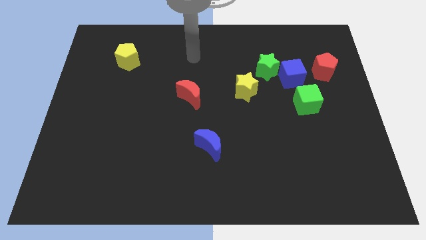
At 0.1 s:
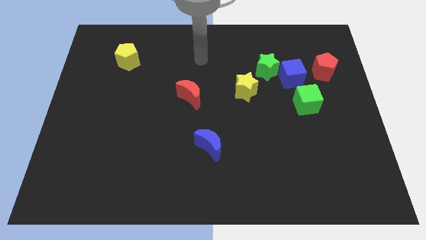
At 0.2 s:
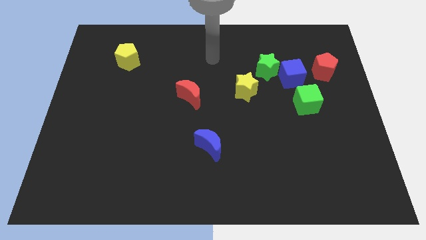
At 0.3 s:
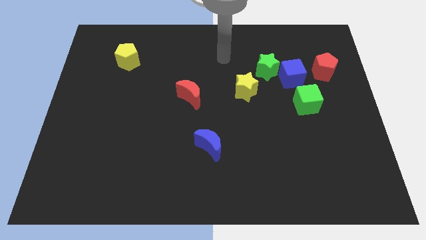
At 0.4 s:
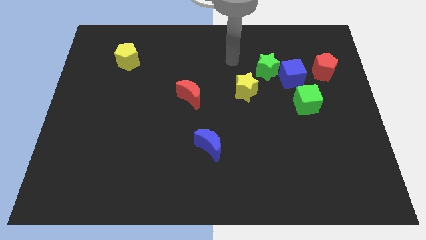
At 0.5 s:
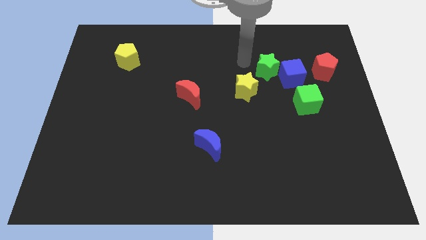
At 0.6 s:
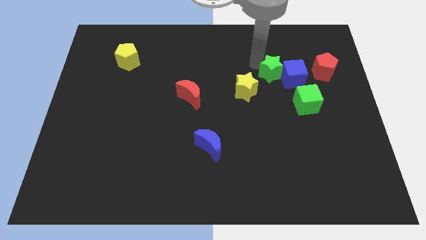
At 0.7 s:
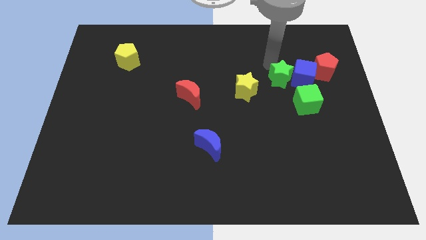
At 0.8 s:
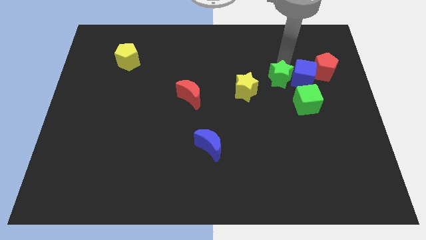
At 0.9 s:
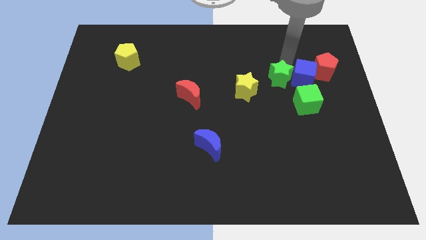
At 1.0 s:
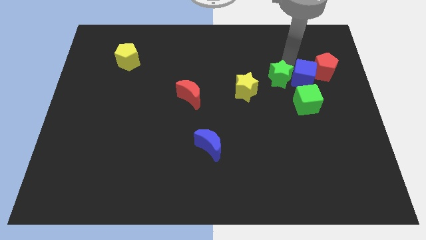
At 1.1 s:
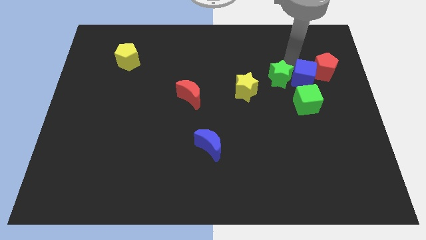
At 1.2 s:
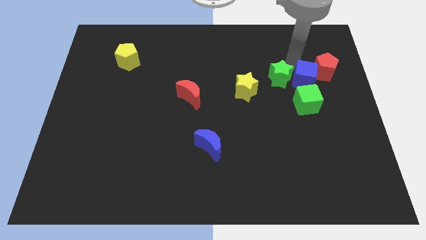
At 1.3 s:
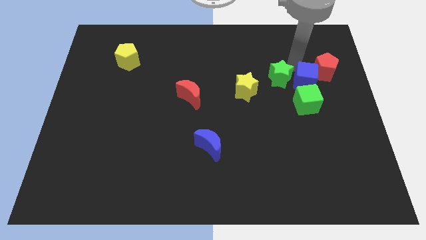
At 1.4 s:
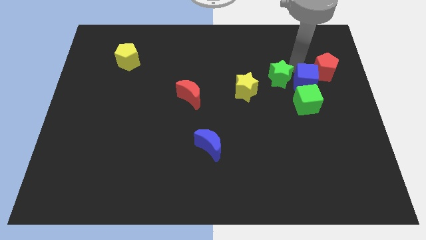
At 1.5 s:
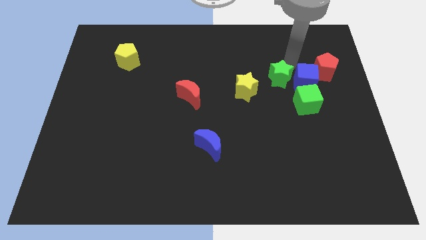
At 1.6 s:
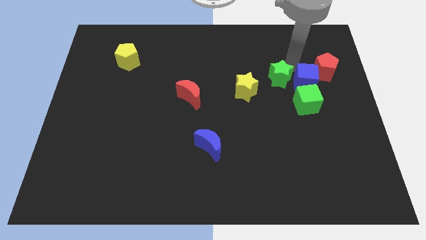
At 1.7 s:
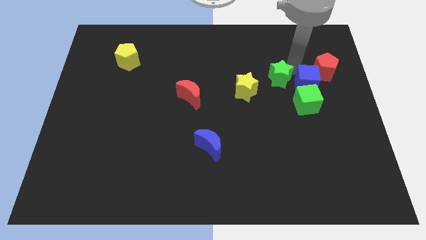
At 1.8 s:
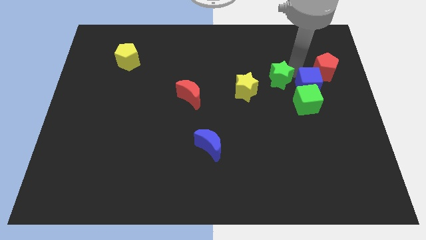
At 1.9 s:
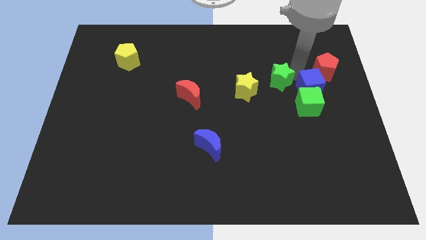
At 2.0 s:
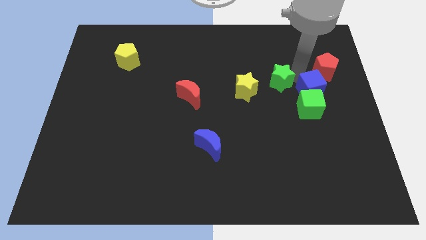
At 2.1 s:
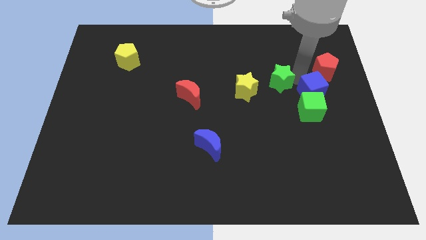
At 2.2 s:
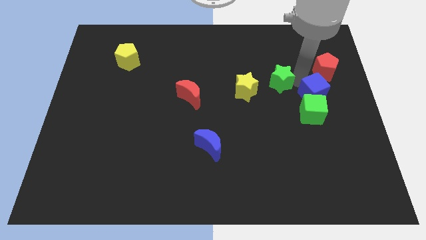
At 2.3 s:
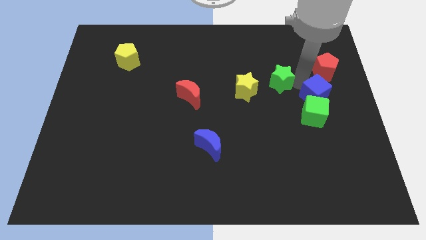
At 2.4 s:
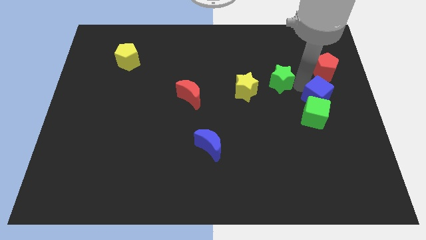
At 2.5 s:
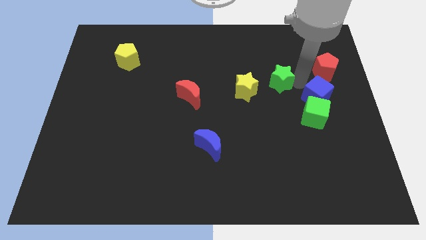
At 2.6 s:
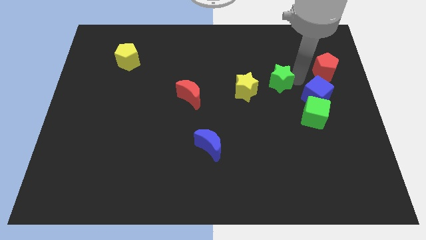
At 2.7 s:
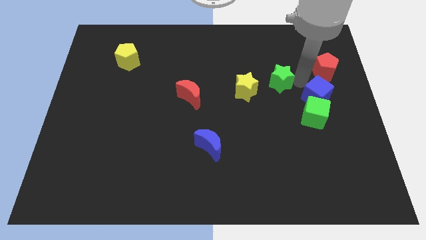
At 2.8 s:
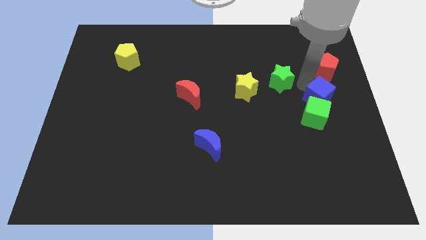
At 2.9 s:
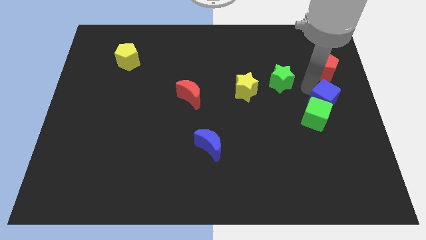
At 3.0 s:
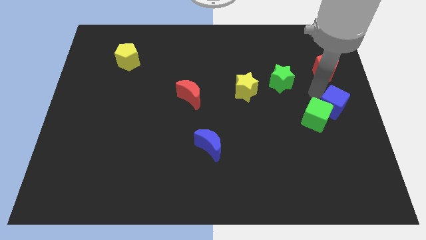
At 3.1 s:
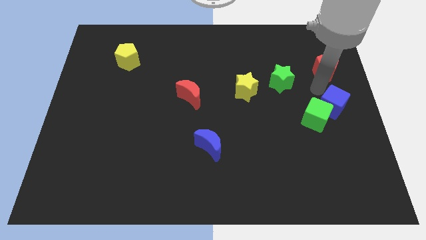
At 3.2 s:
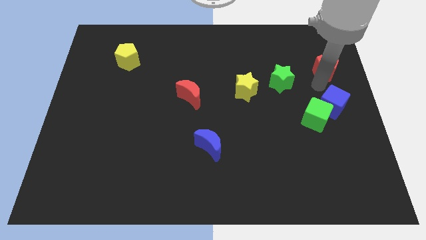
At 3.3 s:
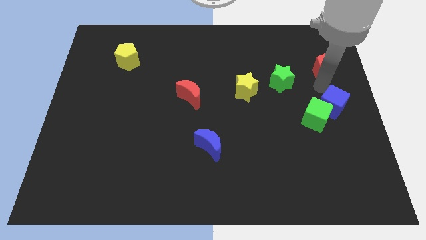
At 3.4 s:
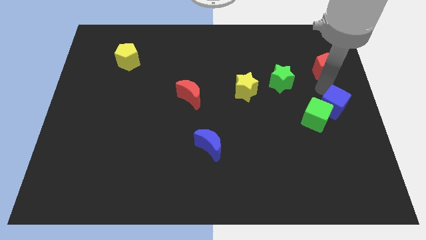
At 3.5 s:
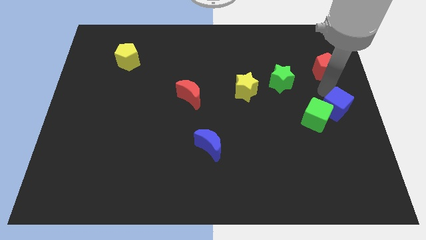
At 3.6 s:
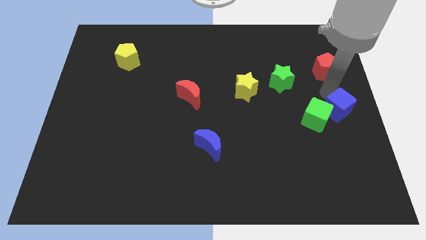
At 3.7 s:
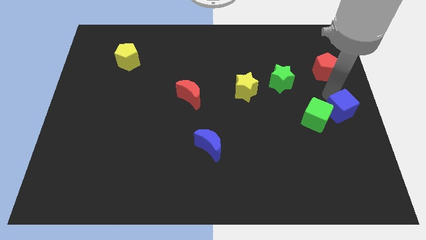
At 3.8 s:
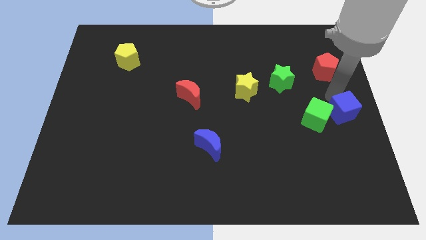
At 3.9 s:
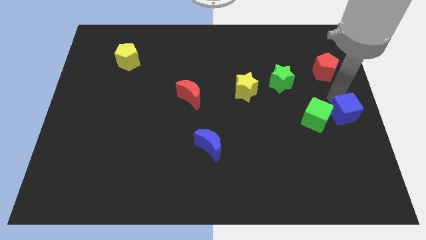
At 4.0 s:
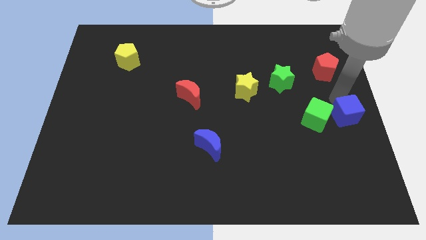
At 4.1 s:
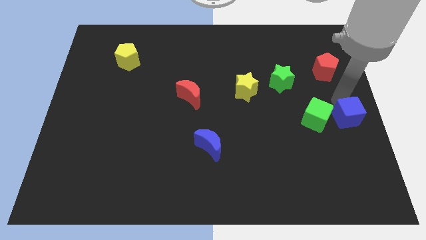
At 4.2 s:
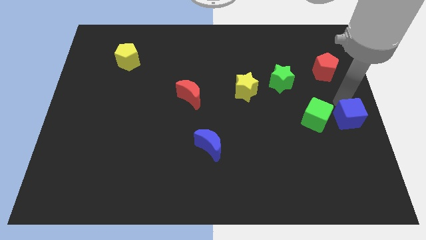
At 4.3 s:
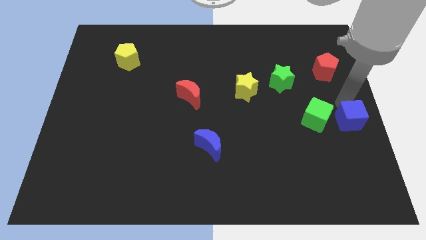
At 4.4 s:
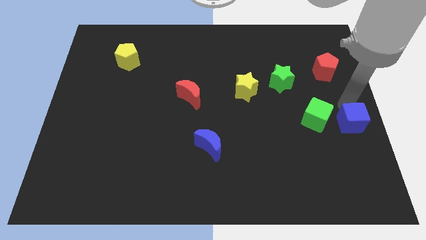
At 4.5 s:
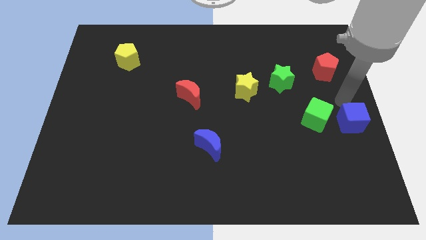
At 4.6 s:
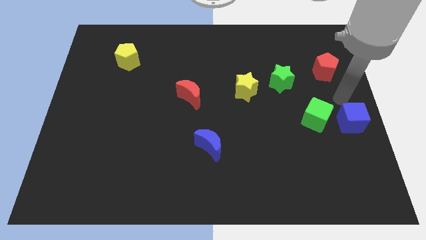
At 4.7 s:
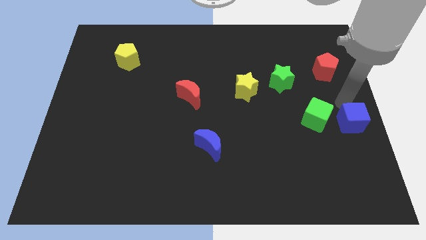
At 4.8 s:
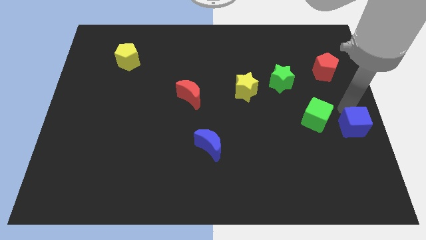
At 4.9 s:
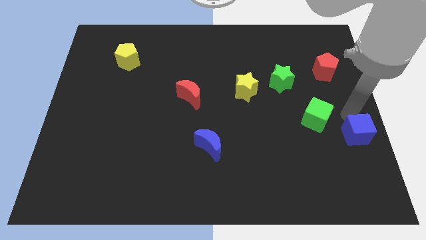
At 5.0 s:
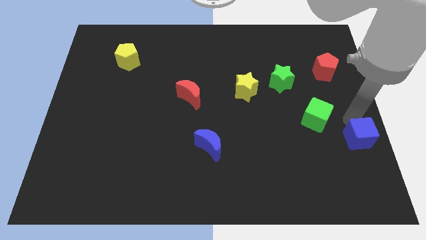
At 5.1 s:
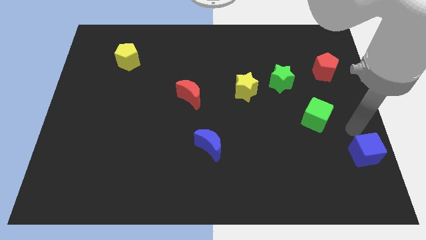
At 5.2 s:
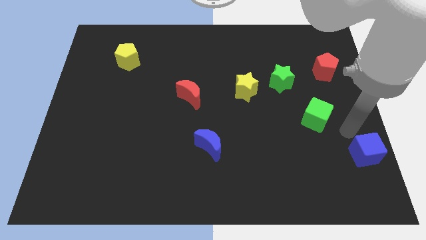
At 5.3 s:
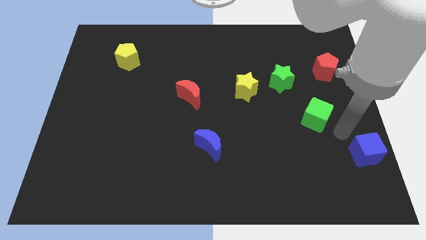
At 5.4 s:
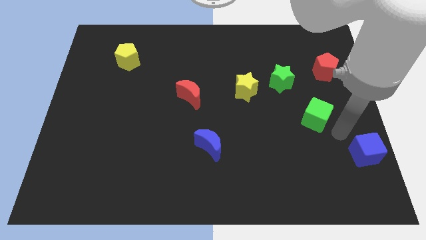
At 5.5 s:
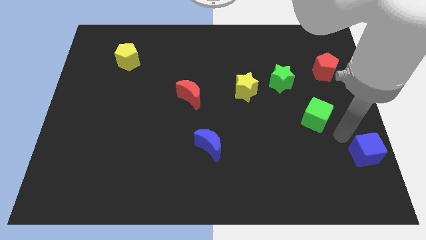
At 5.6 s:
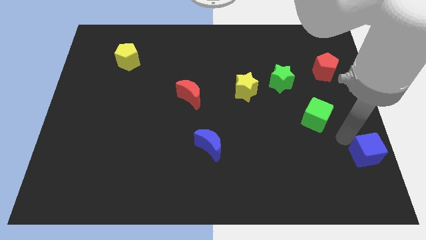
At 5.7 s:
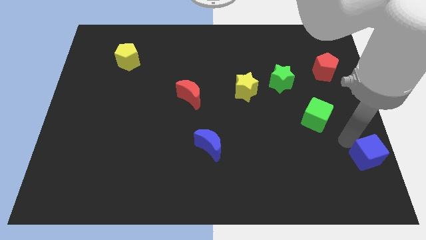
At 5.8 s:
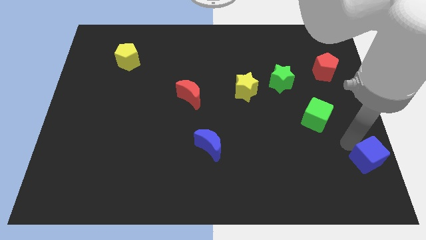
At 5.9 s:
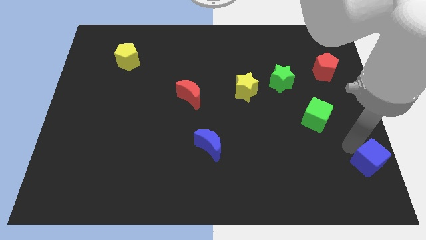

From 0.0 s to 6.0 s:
put the blue cube to the bottom right

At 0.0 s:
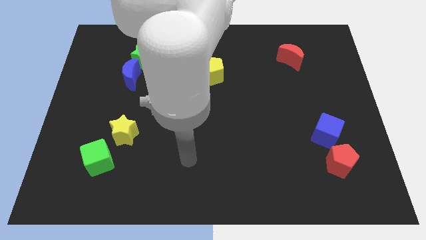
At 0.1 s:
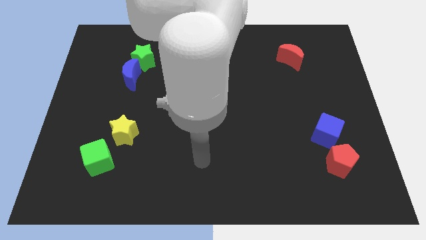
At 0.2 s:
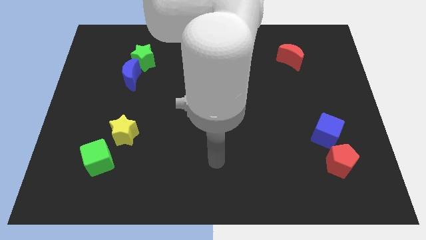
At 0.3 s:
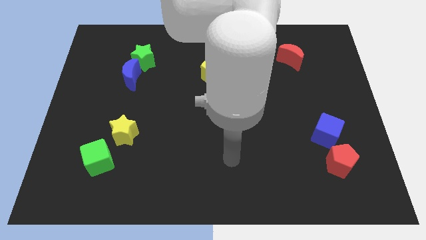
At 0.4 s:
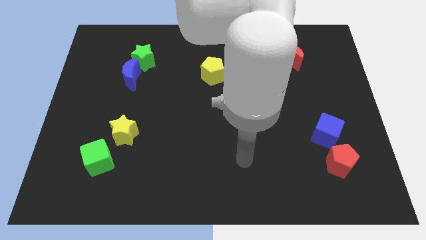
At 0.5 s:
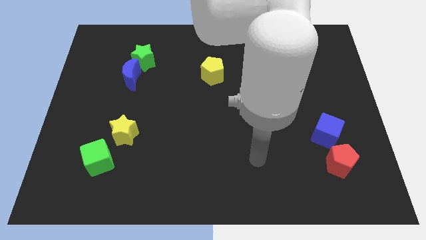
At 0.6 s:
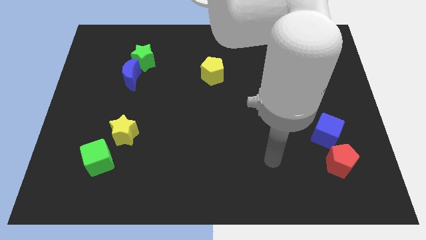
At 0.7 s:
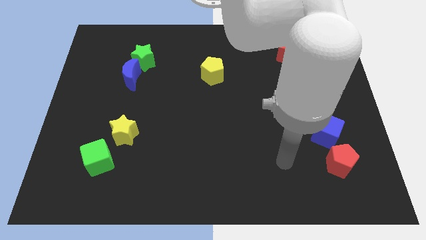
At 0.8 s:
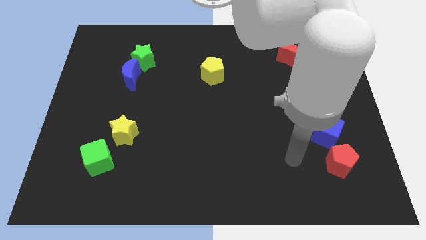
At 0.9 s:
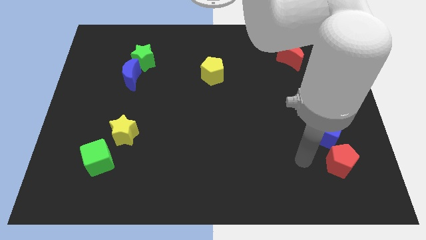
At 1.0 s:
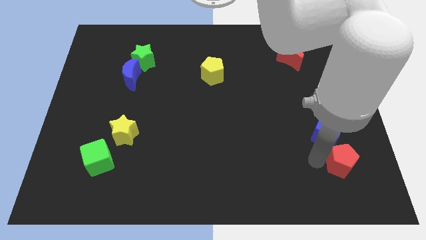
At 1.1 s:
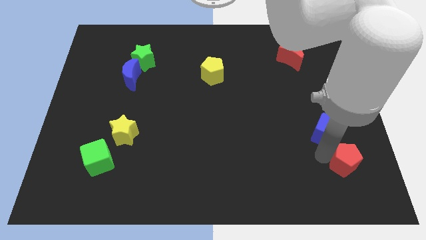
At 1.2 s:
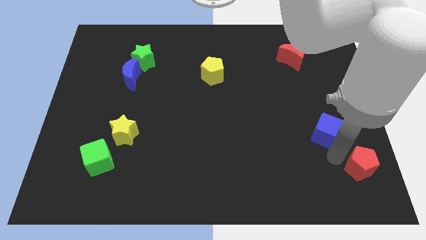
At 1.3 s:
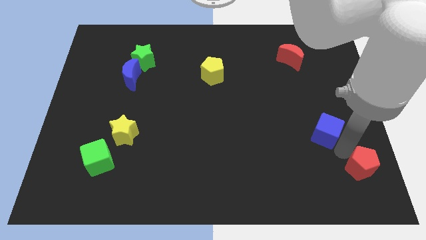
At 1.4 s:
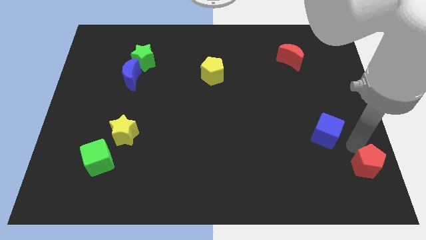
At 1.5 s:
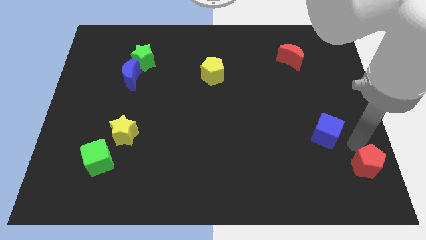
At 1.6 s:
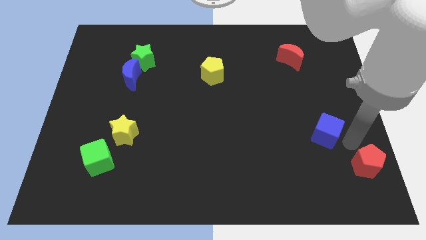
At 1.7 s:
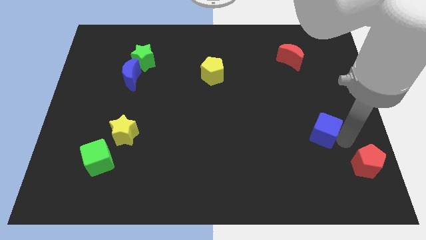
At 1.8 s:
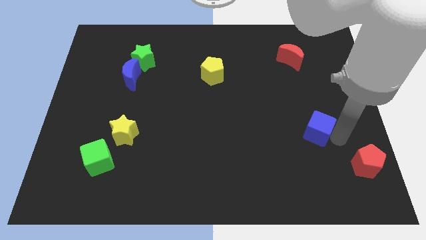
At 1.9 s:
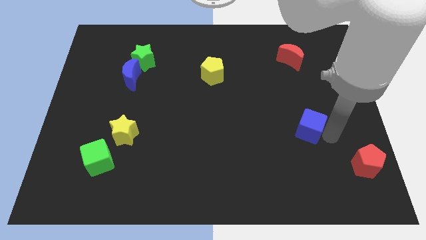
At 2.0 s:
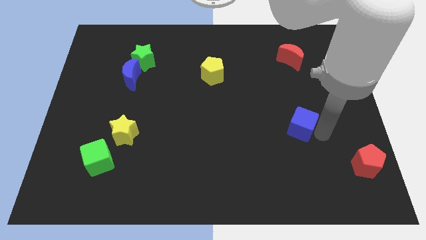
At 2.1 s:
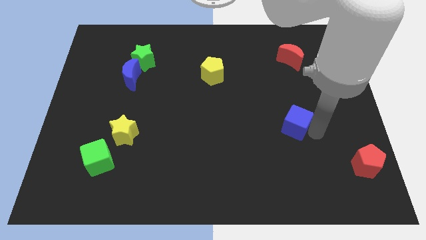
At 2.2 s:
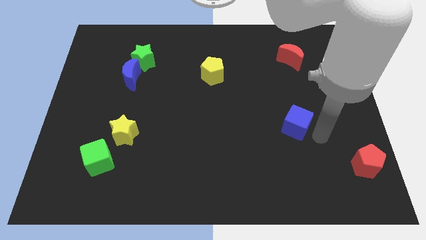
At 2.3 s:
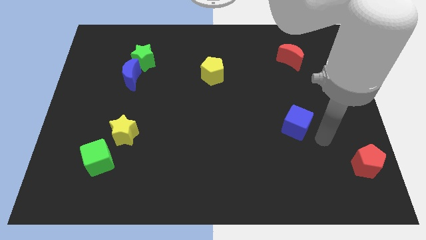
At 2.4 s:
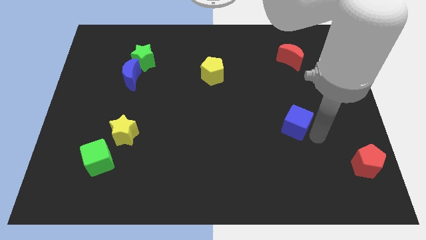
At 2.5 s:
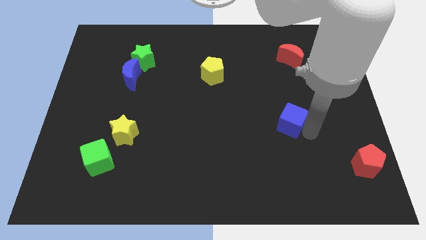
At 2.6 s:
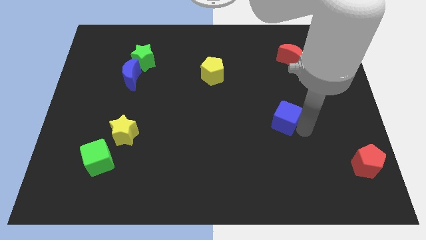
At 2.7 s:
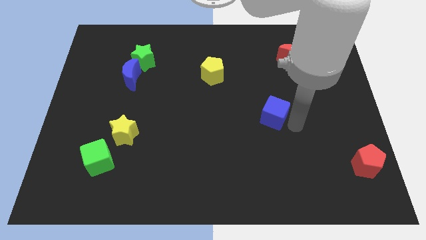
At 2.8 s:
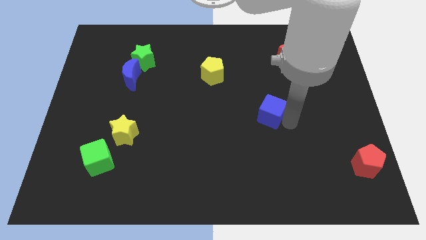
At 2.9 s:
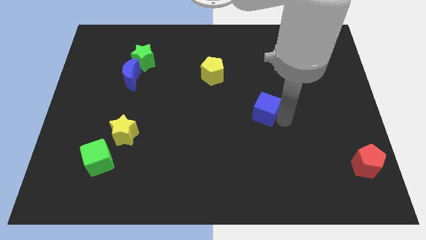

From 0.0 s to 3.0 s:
push the blue cube to the middle
